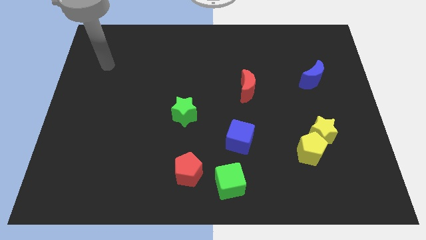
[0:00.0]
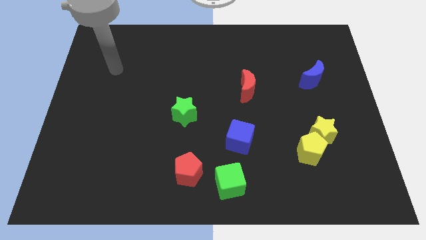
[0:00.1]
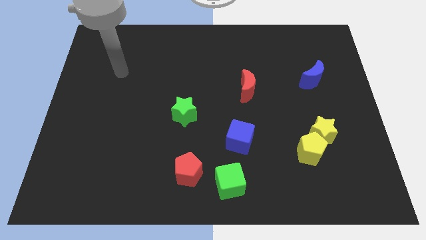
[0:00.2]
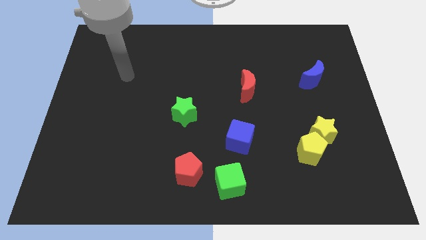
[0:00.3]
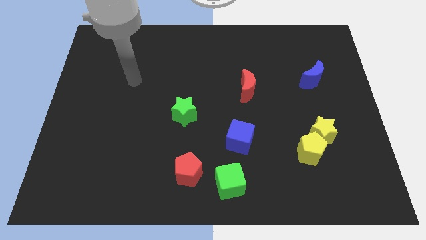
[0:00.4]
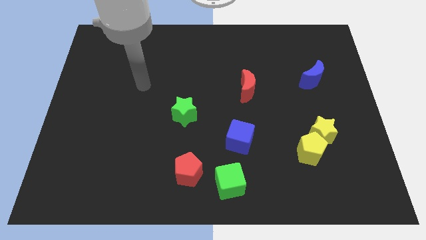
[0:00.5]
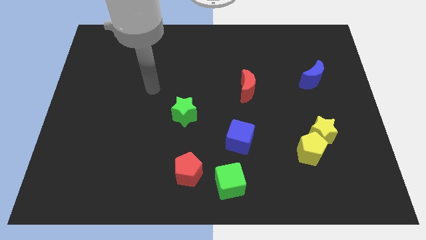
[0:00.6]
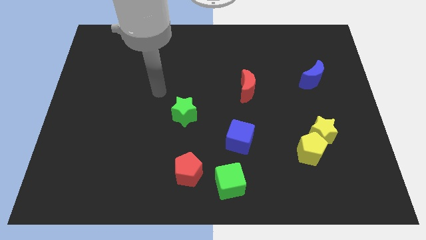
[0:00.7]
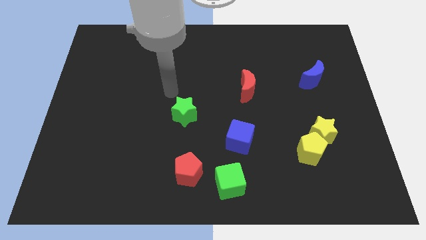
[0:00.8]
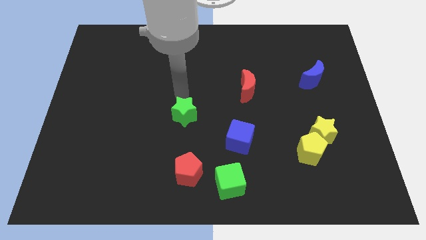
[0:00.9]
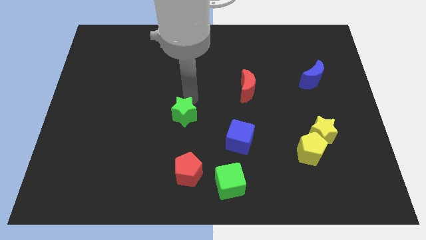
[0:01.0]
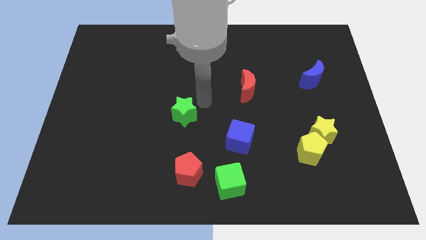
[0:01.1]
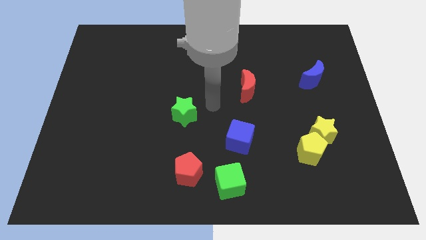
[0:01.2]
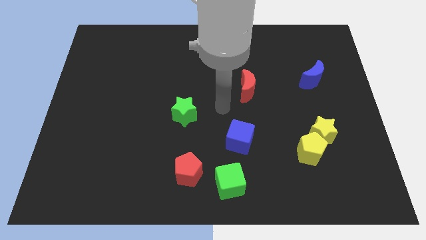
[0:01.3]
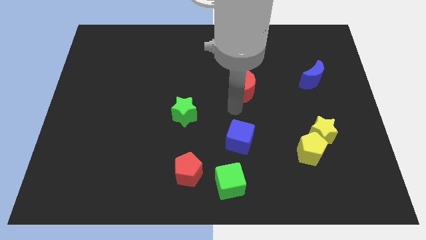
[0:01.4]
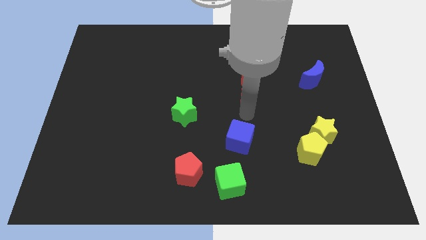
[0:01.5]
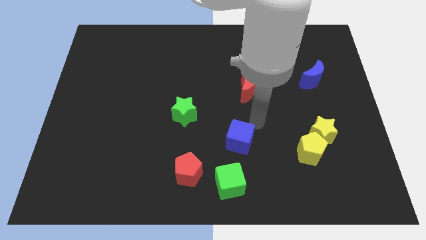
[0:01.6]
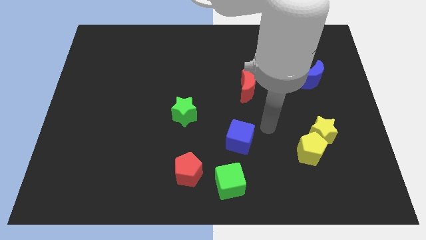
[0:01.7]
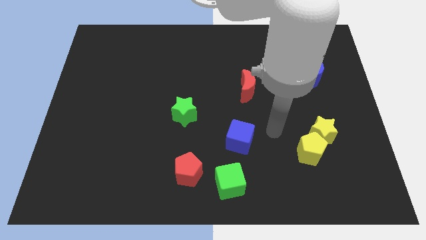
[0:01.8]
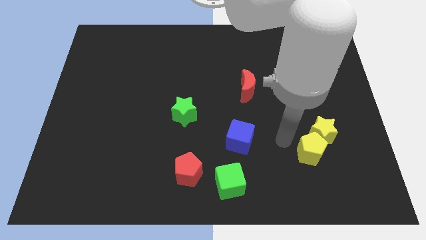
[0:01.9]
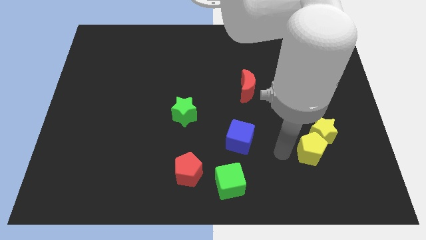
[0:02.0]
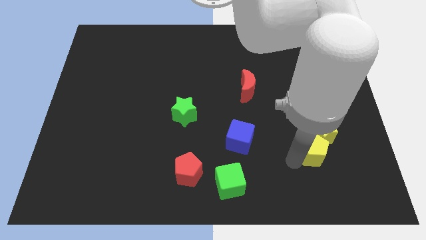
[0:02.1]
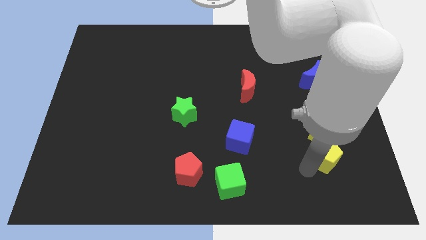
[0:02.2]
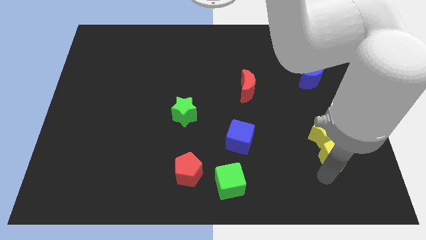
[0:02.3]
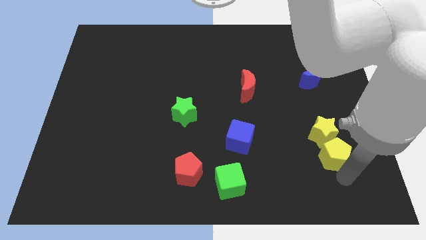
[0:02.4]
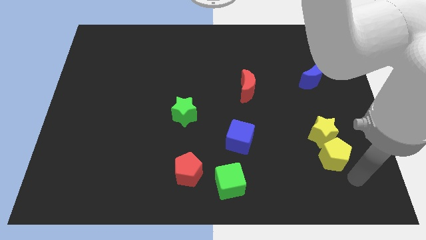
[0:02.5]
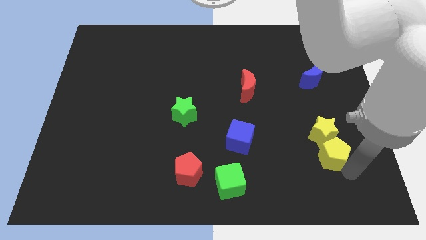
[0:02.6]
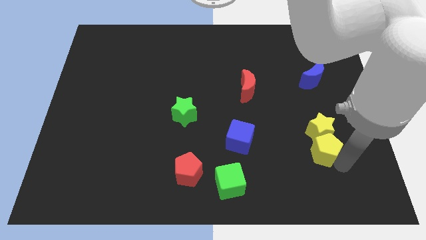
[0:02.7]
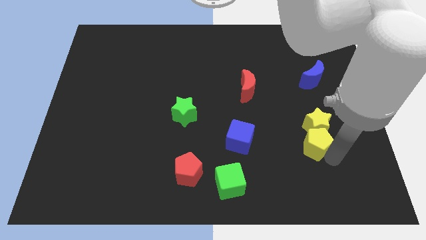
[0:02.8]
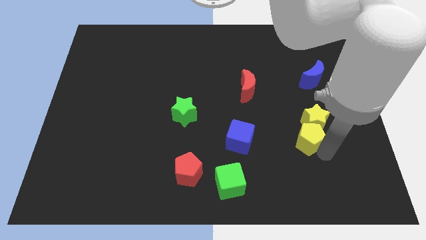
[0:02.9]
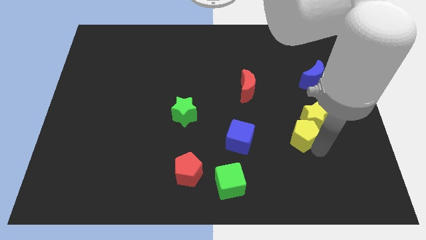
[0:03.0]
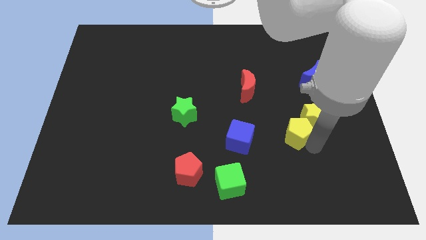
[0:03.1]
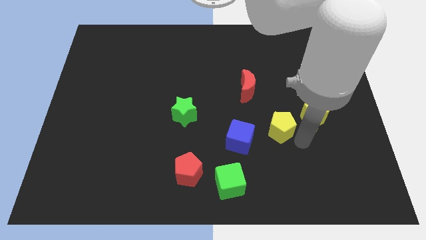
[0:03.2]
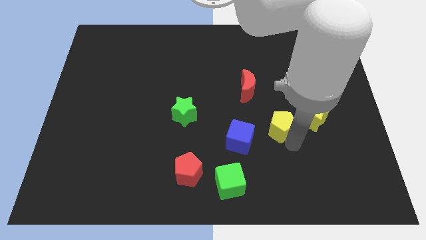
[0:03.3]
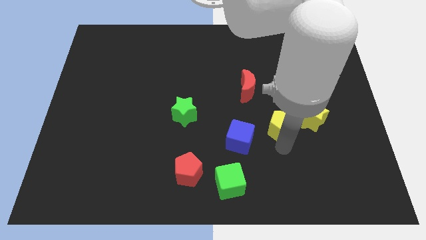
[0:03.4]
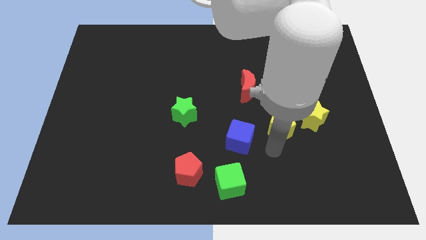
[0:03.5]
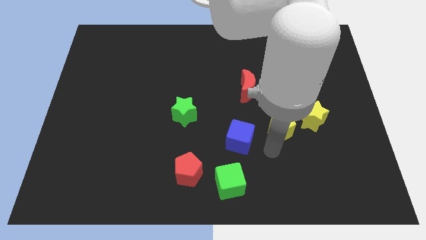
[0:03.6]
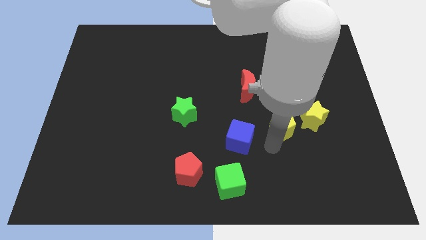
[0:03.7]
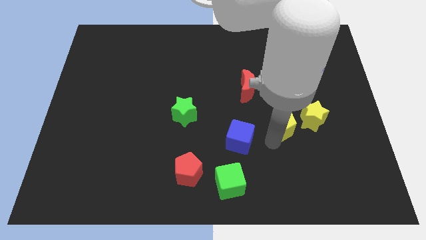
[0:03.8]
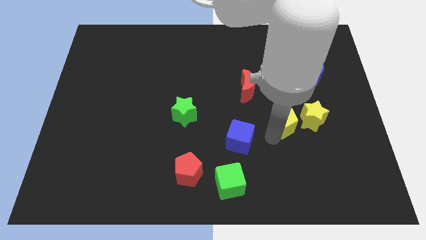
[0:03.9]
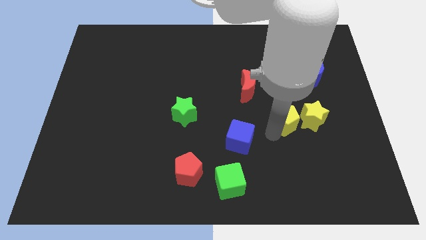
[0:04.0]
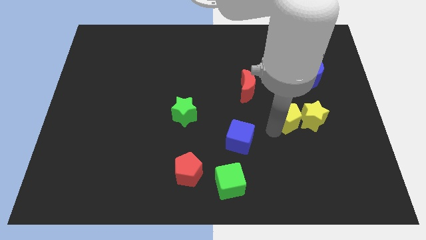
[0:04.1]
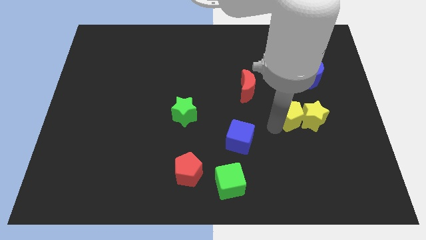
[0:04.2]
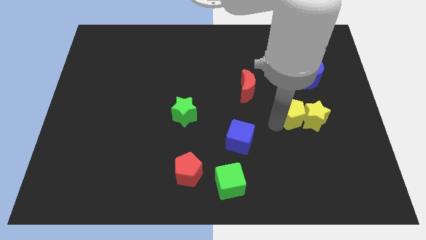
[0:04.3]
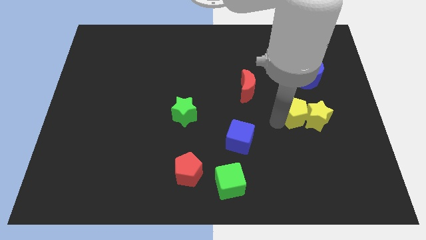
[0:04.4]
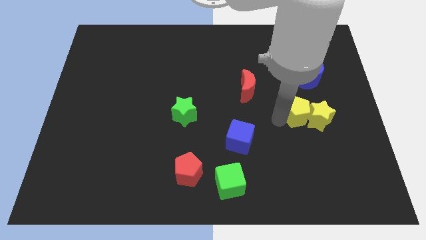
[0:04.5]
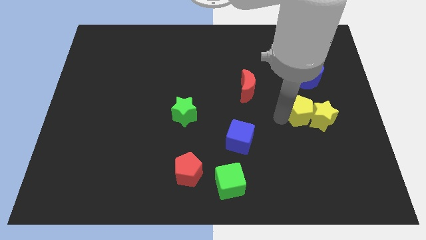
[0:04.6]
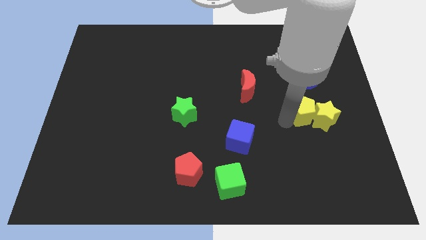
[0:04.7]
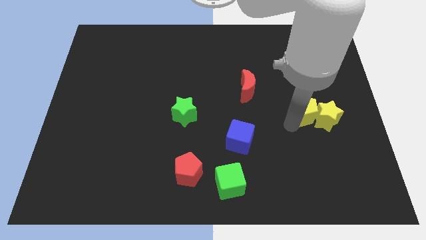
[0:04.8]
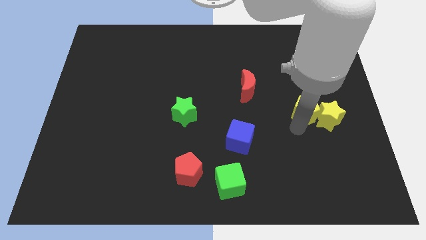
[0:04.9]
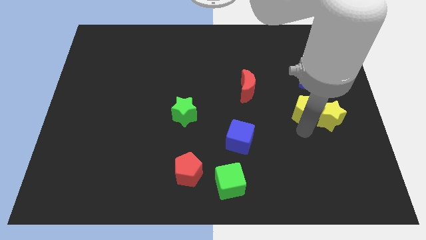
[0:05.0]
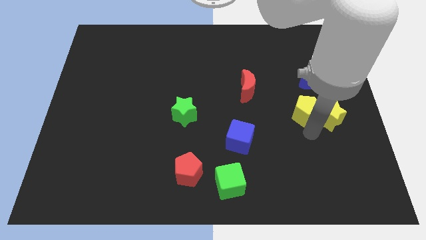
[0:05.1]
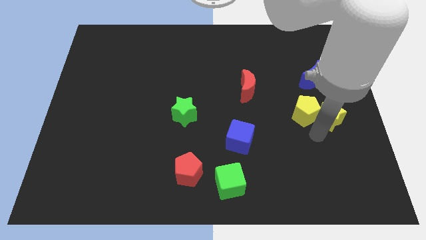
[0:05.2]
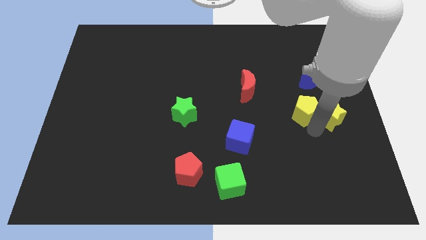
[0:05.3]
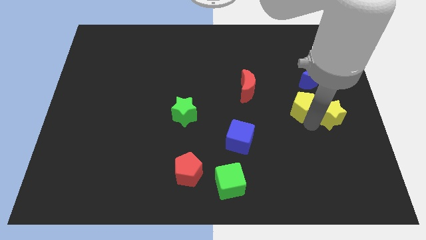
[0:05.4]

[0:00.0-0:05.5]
move the yellow pentagon to the bottom left of the blue moon

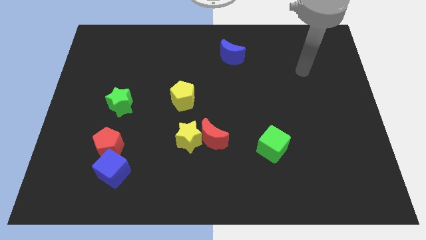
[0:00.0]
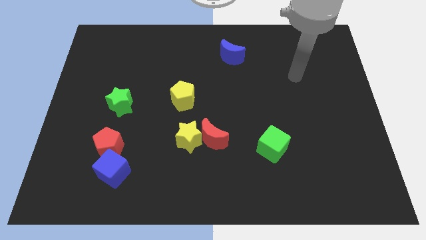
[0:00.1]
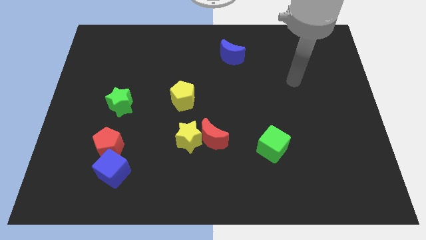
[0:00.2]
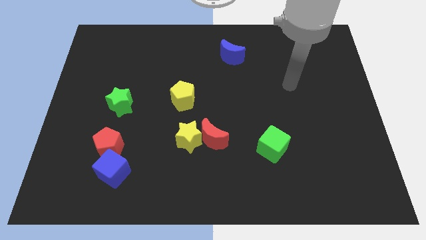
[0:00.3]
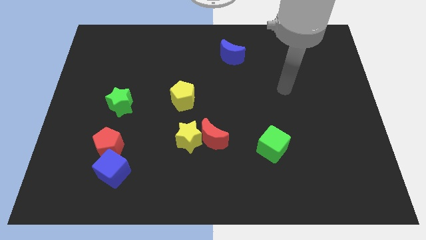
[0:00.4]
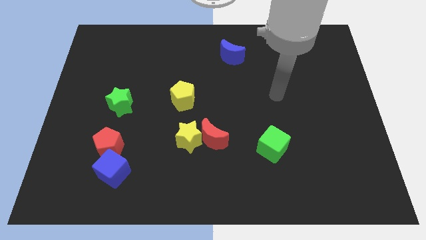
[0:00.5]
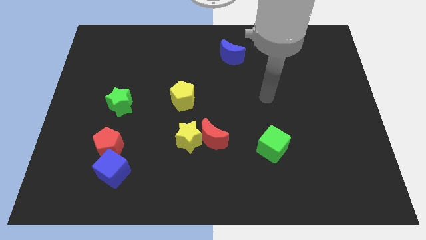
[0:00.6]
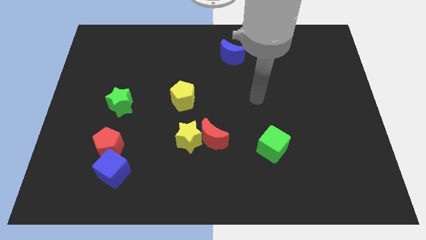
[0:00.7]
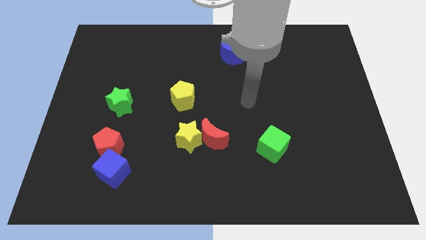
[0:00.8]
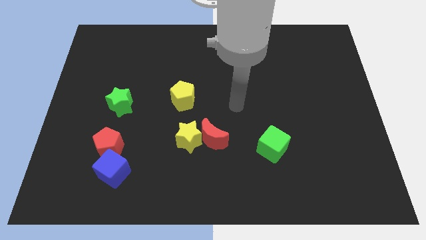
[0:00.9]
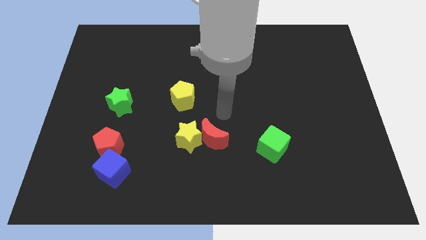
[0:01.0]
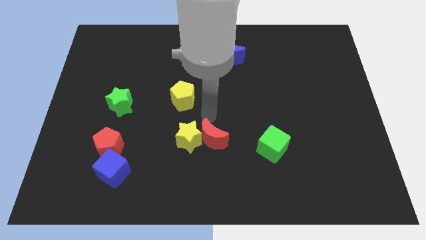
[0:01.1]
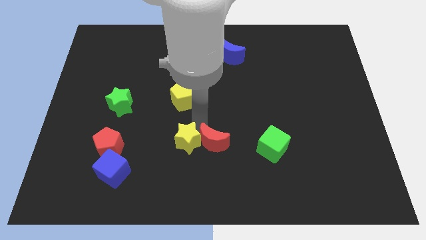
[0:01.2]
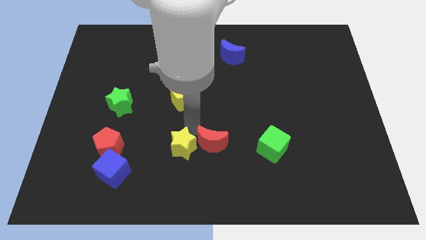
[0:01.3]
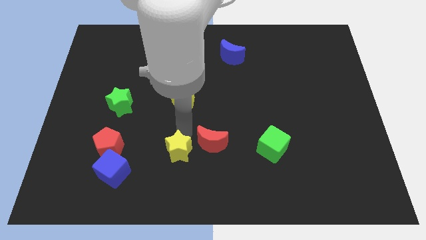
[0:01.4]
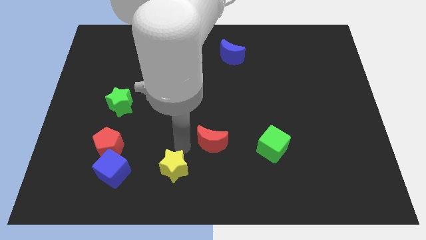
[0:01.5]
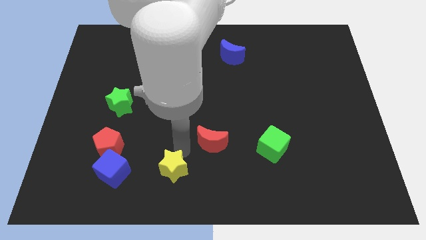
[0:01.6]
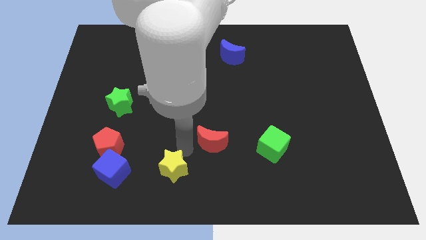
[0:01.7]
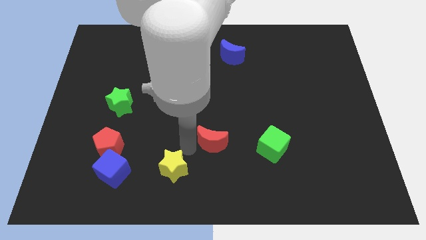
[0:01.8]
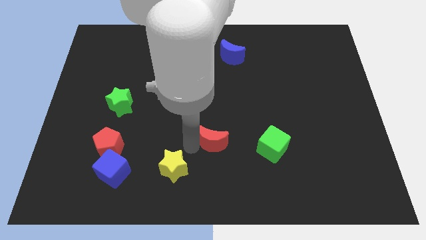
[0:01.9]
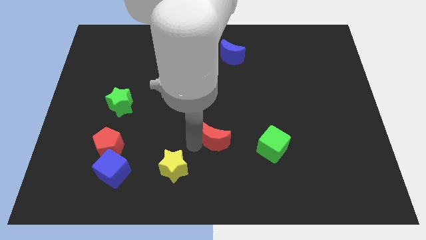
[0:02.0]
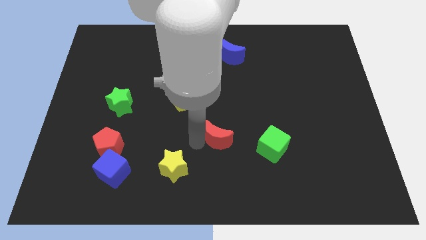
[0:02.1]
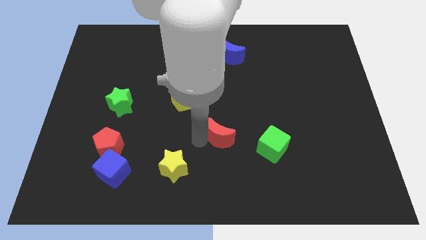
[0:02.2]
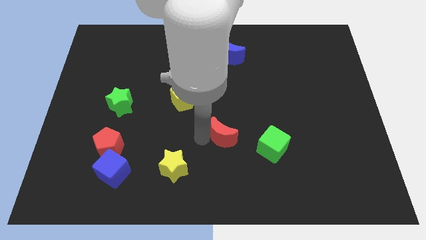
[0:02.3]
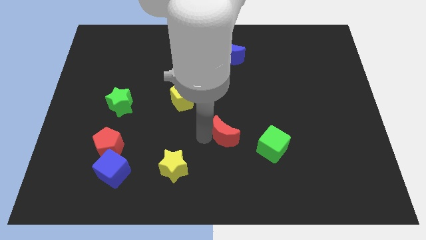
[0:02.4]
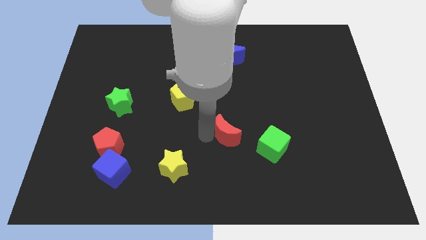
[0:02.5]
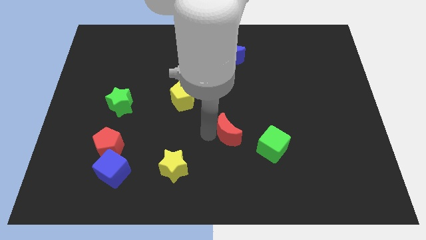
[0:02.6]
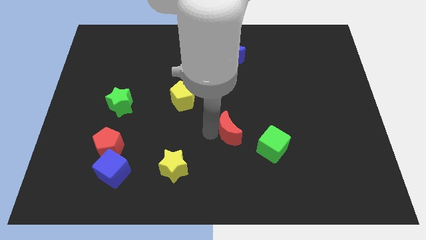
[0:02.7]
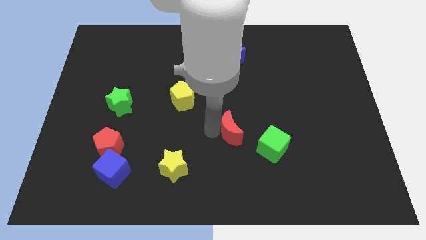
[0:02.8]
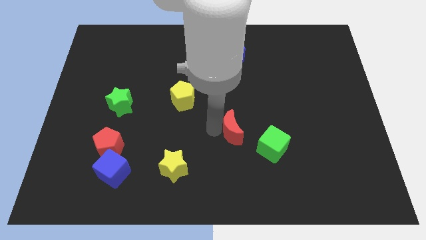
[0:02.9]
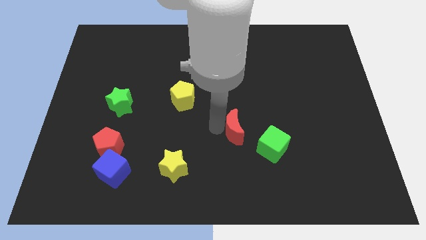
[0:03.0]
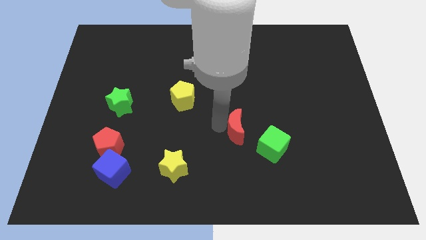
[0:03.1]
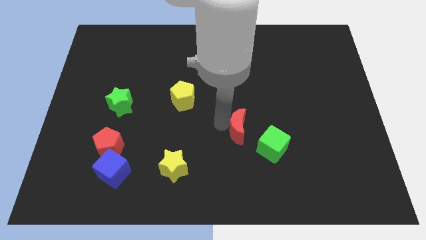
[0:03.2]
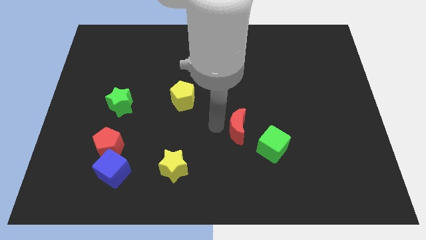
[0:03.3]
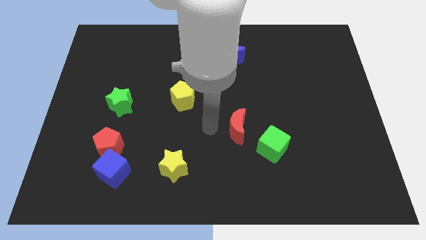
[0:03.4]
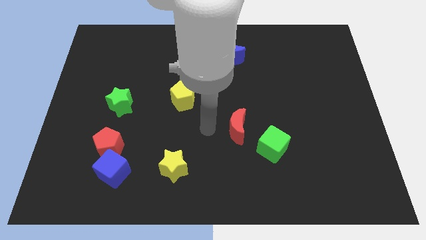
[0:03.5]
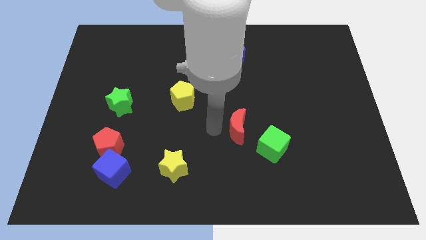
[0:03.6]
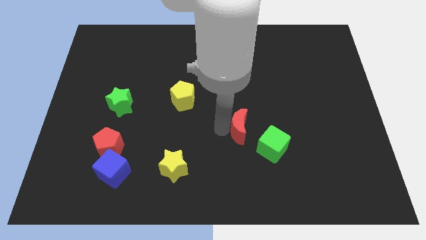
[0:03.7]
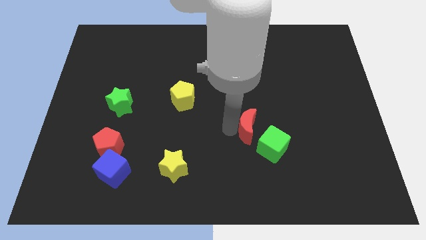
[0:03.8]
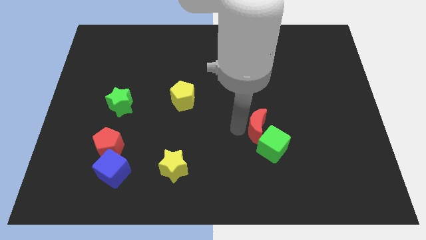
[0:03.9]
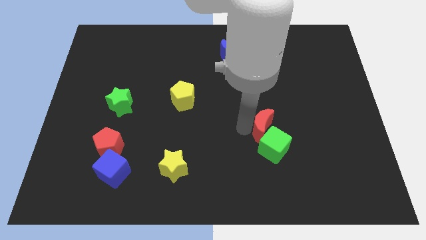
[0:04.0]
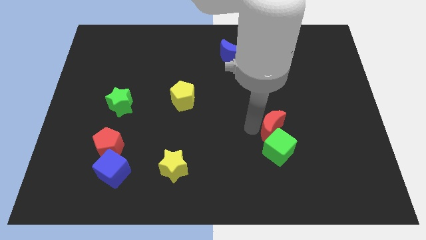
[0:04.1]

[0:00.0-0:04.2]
put the red moon to the top right of the green cube
